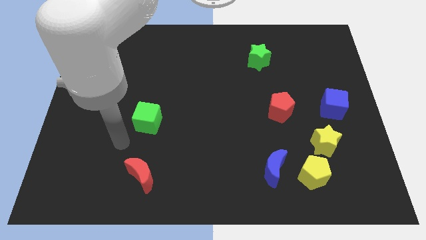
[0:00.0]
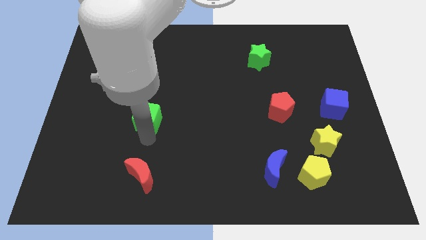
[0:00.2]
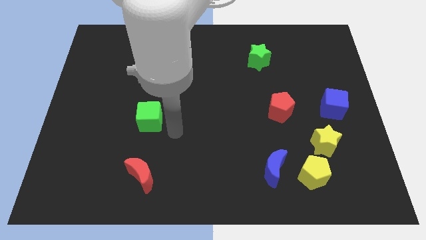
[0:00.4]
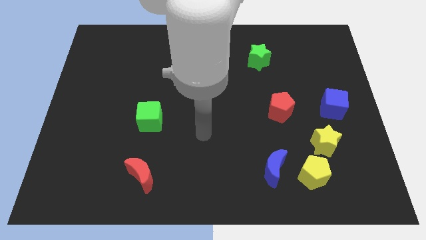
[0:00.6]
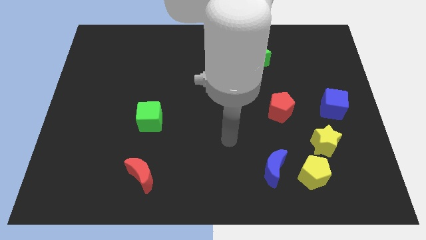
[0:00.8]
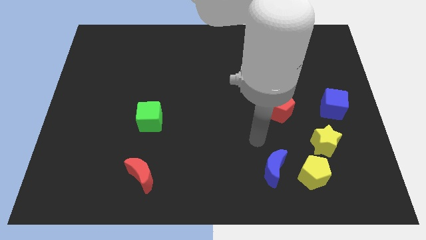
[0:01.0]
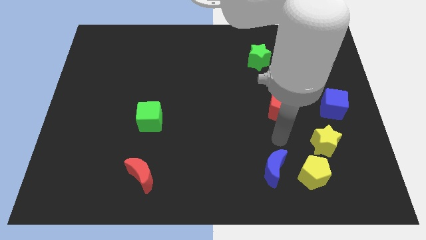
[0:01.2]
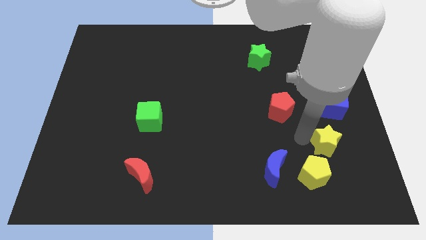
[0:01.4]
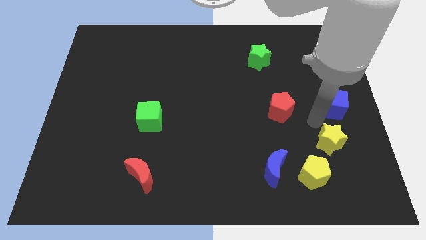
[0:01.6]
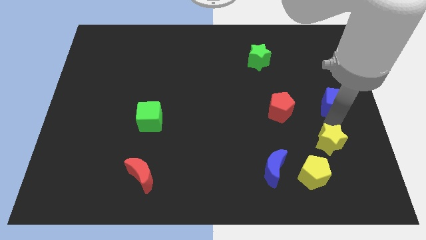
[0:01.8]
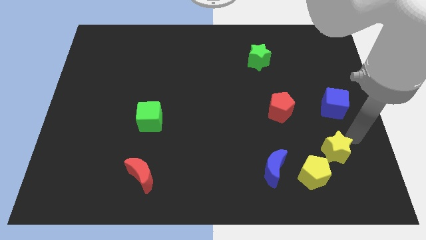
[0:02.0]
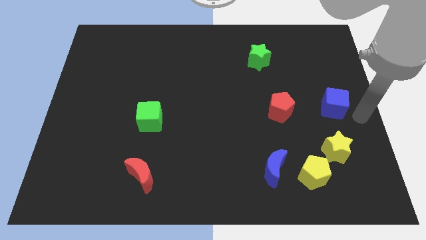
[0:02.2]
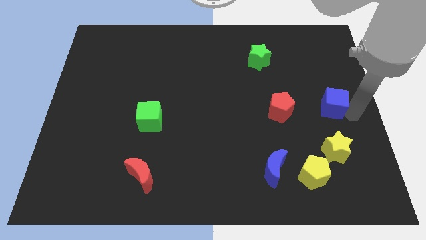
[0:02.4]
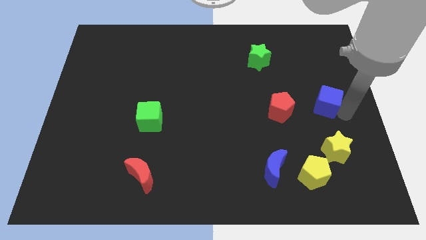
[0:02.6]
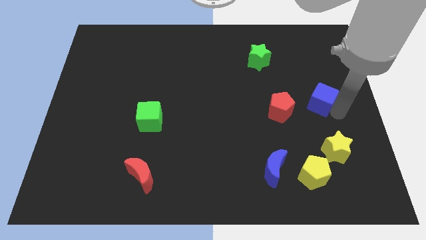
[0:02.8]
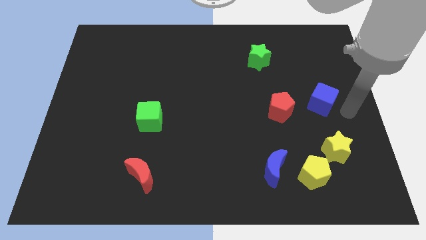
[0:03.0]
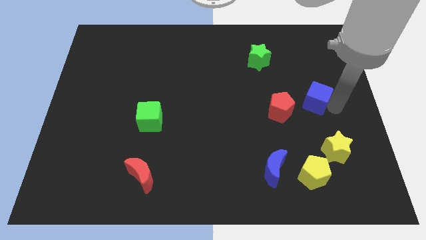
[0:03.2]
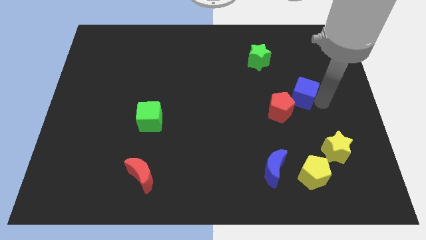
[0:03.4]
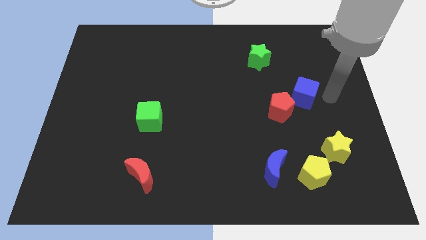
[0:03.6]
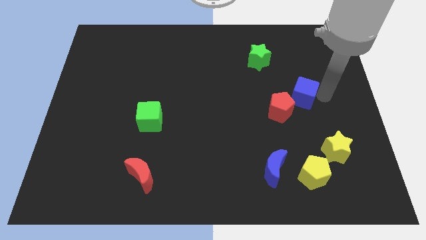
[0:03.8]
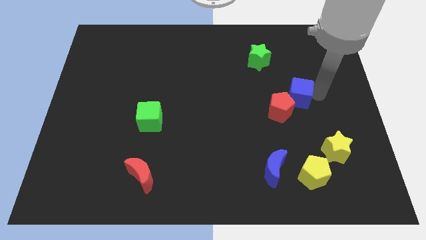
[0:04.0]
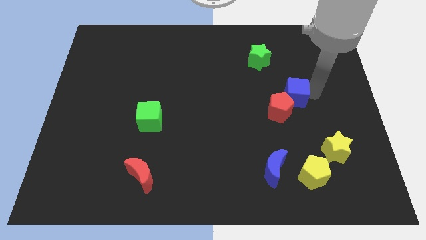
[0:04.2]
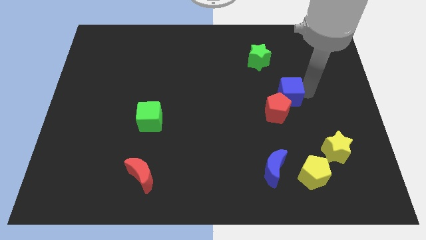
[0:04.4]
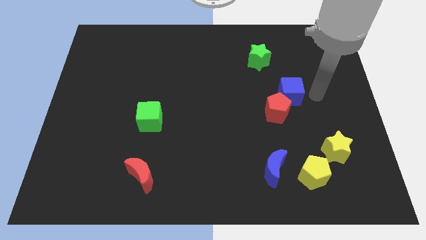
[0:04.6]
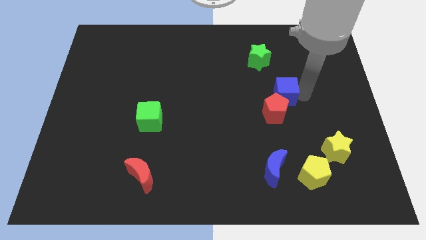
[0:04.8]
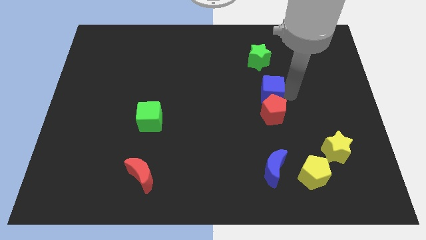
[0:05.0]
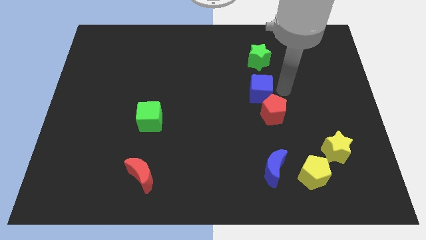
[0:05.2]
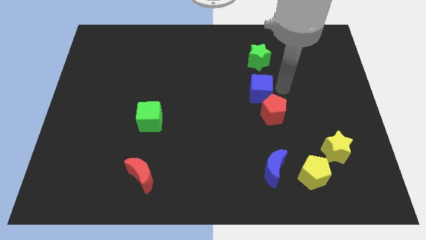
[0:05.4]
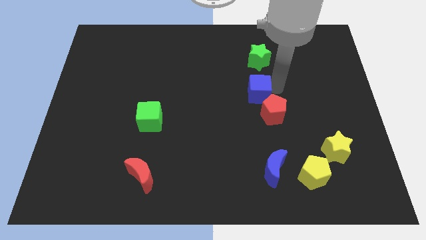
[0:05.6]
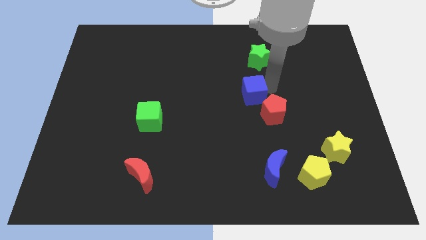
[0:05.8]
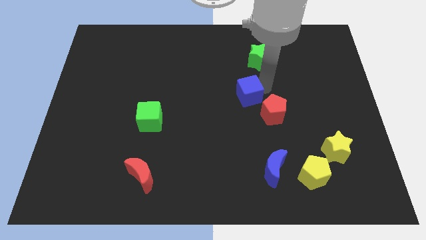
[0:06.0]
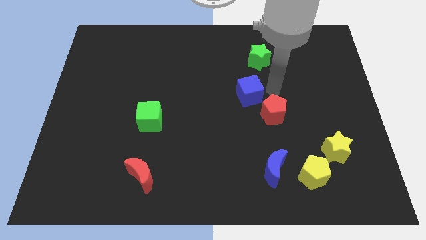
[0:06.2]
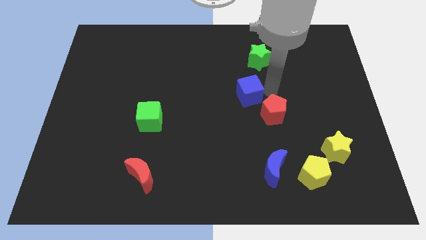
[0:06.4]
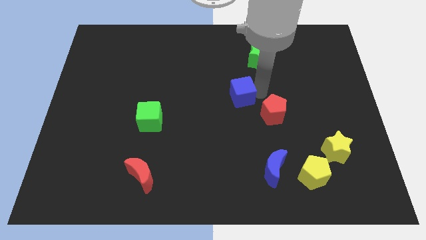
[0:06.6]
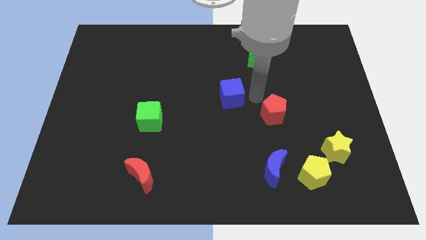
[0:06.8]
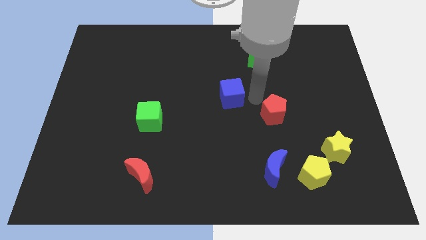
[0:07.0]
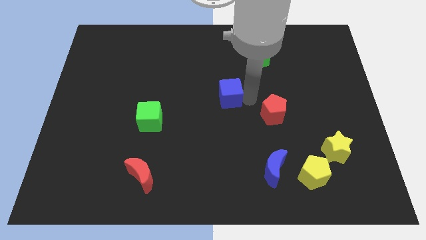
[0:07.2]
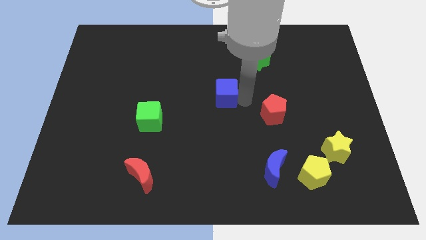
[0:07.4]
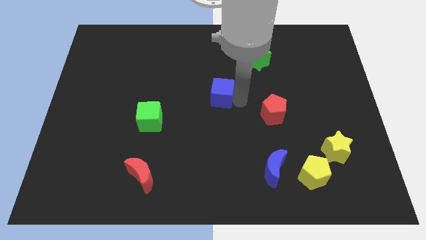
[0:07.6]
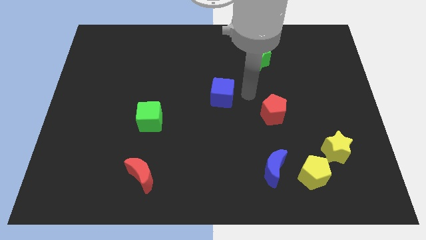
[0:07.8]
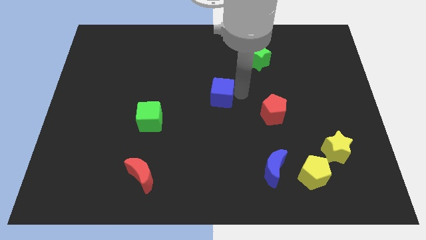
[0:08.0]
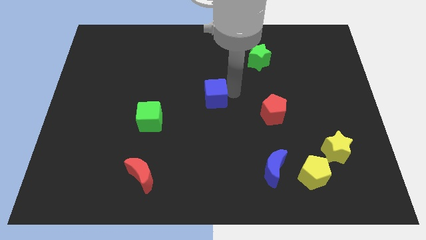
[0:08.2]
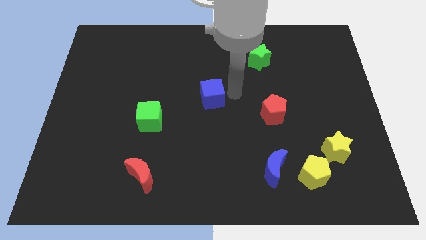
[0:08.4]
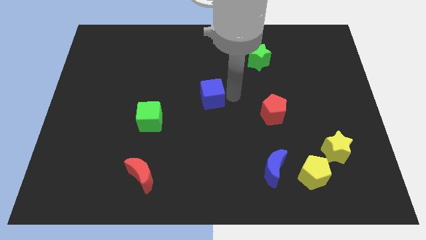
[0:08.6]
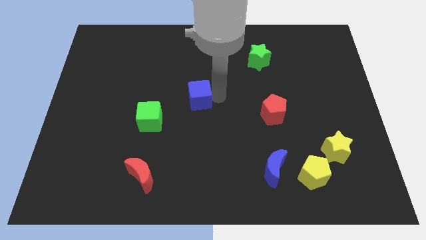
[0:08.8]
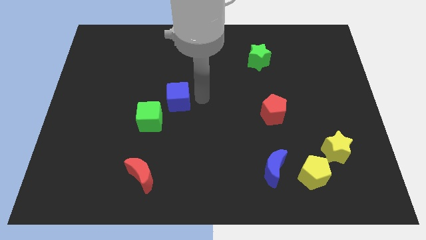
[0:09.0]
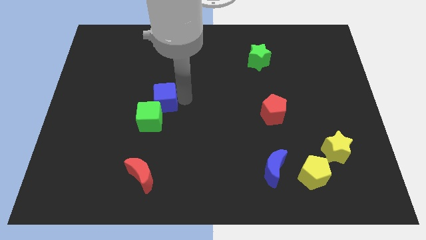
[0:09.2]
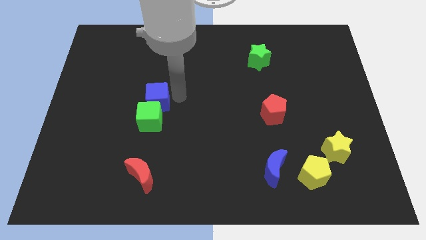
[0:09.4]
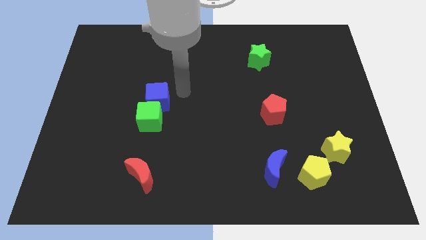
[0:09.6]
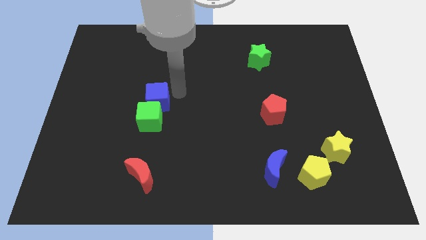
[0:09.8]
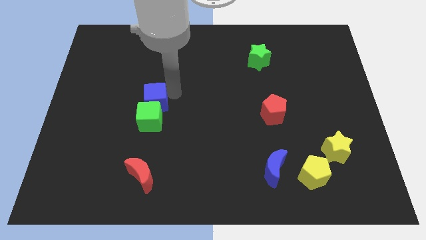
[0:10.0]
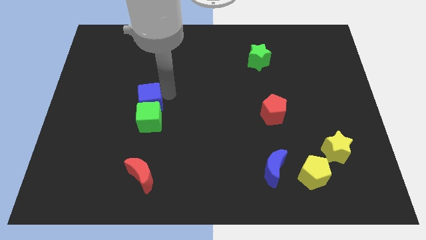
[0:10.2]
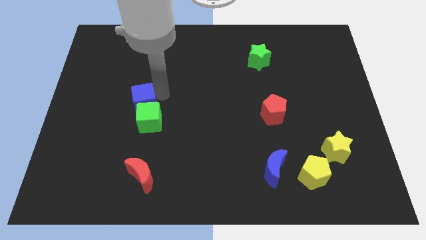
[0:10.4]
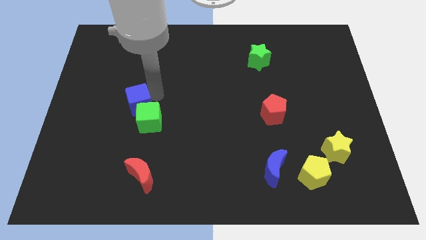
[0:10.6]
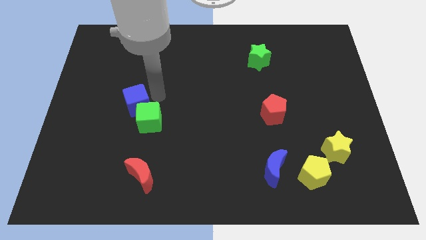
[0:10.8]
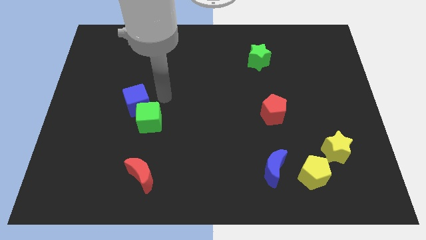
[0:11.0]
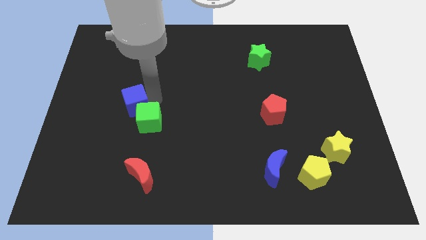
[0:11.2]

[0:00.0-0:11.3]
push the blue cube left of the green cube

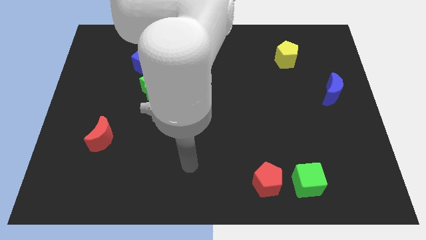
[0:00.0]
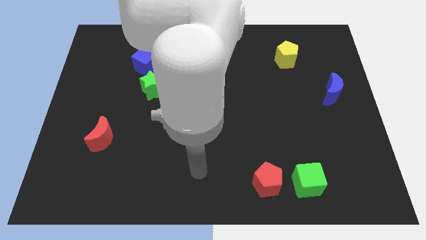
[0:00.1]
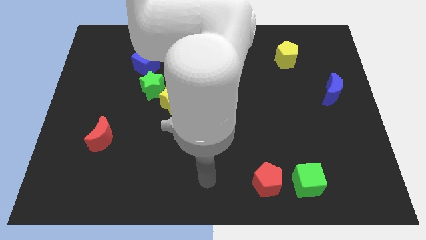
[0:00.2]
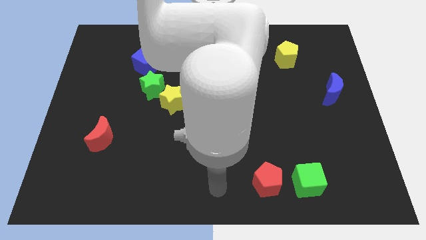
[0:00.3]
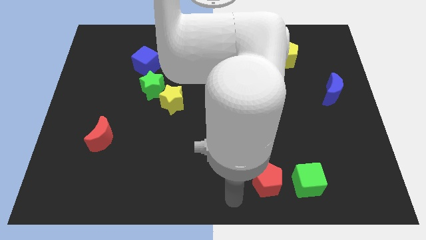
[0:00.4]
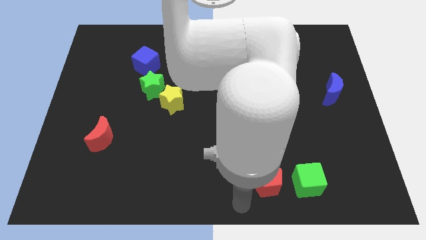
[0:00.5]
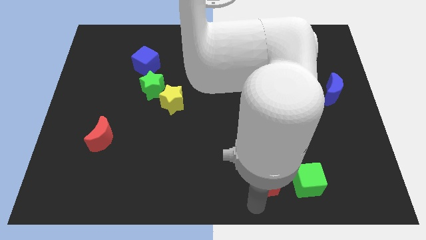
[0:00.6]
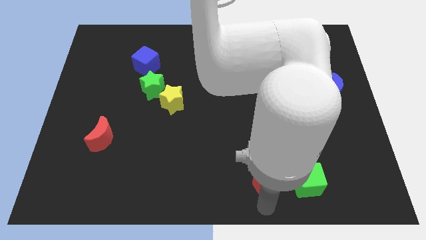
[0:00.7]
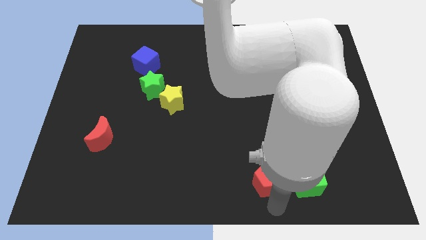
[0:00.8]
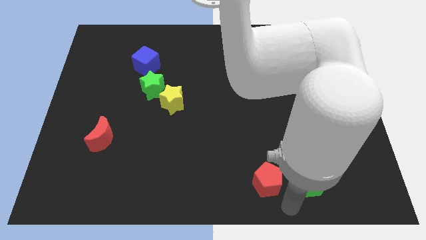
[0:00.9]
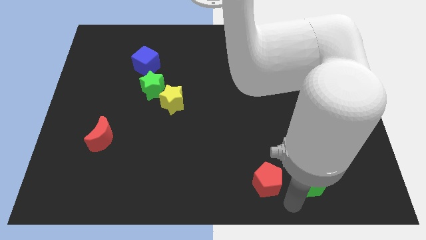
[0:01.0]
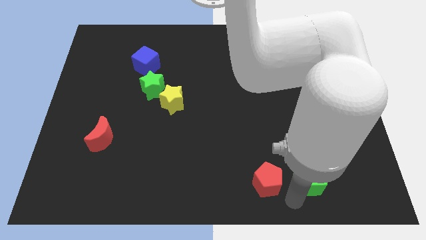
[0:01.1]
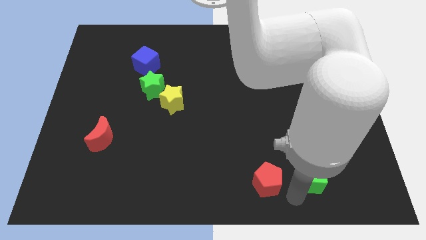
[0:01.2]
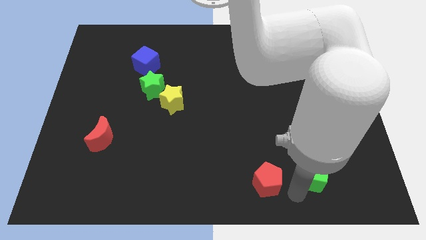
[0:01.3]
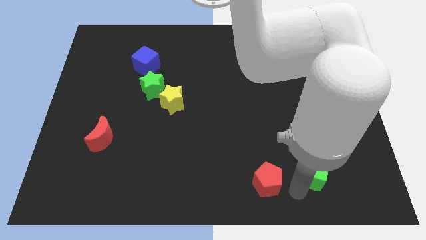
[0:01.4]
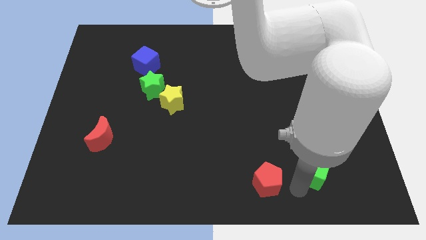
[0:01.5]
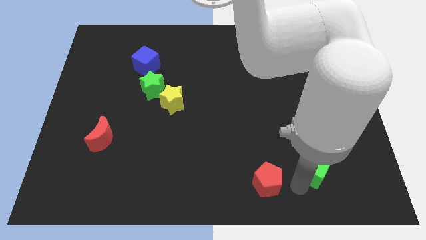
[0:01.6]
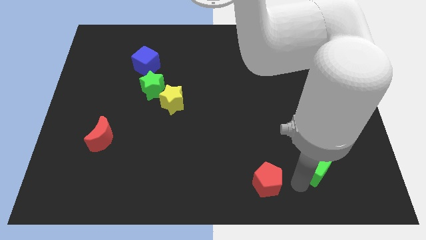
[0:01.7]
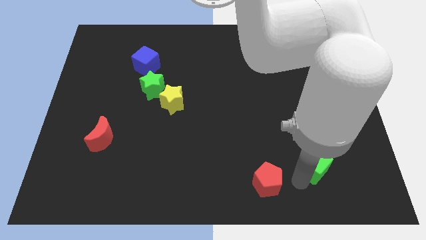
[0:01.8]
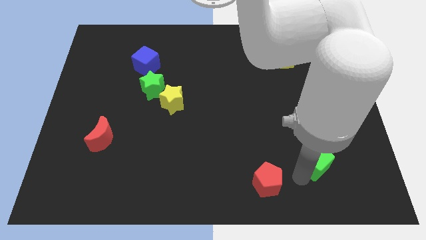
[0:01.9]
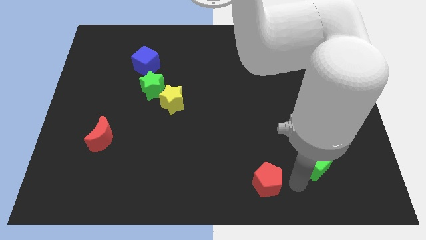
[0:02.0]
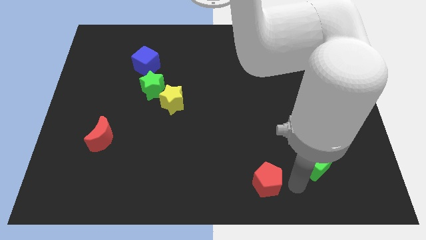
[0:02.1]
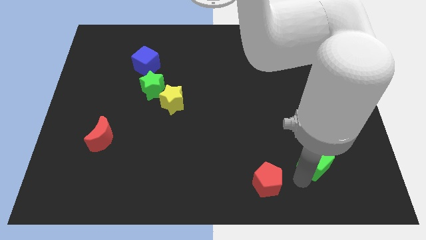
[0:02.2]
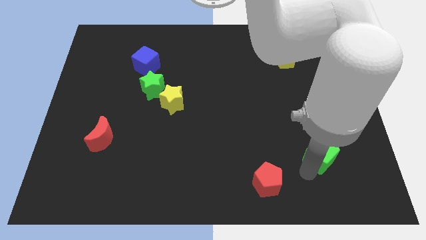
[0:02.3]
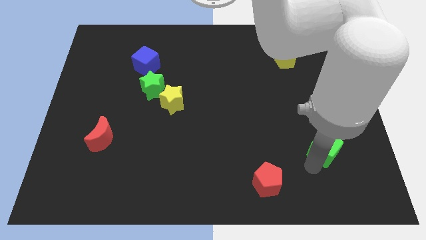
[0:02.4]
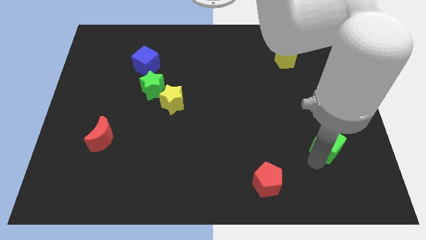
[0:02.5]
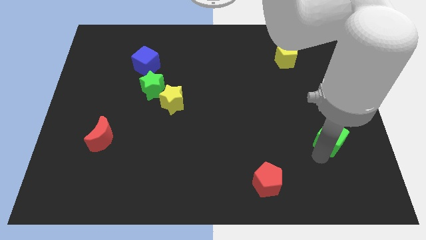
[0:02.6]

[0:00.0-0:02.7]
put the green cube below the blue moon
